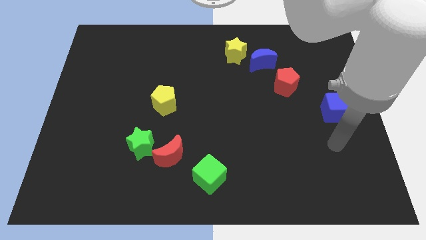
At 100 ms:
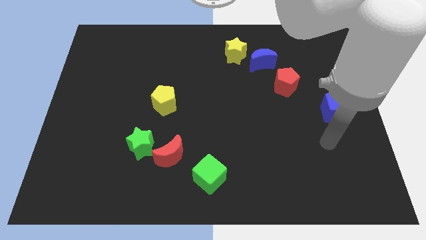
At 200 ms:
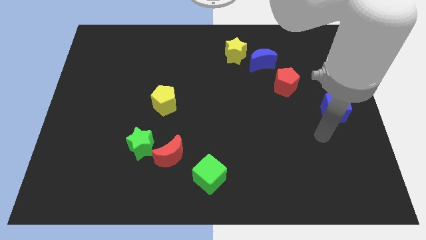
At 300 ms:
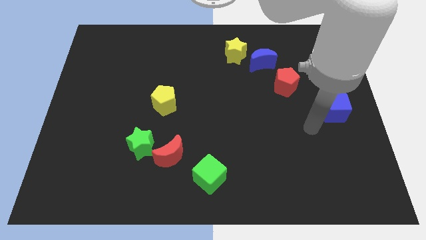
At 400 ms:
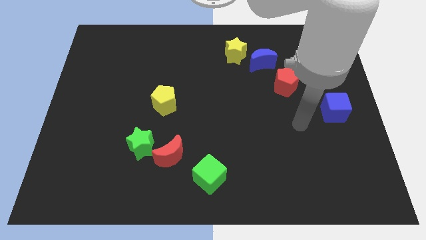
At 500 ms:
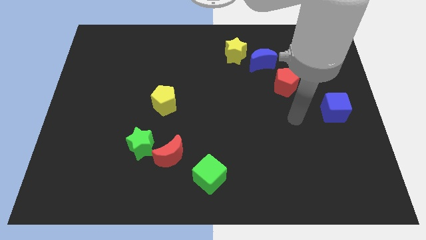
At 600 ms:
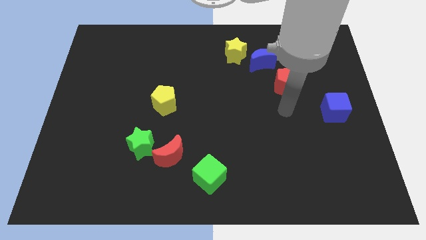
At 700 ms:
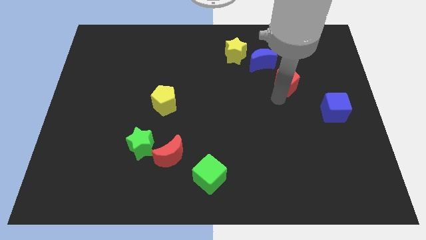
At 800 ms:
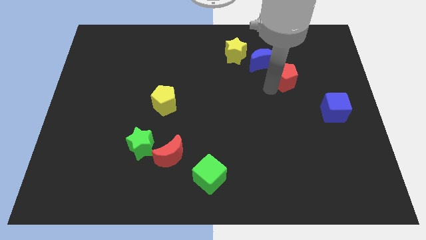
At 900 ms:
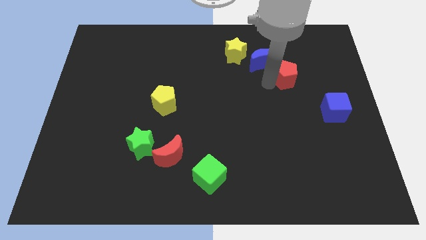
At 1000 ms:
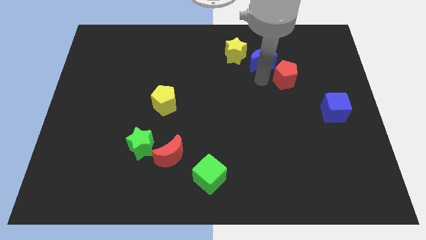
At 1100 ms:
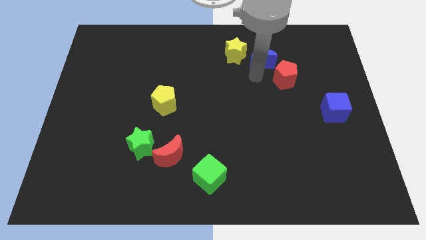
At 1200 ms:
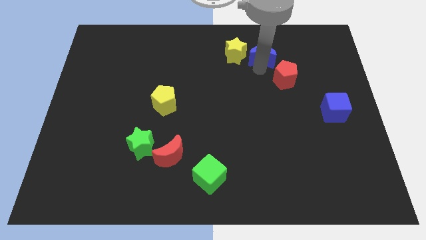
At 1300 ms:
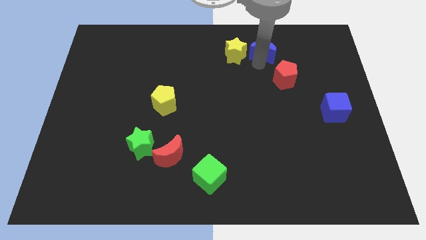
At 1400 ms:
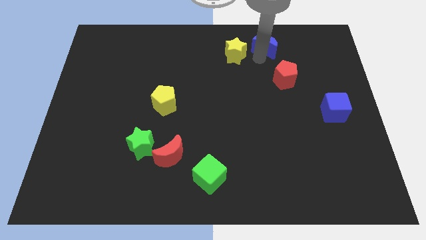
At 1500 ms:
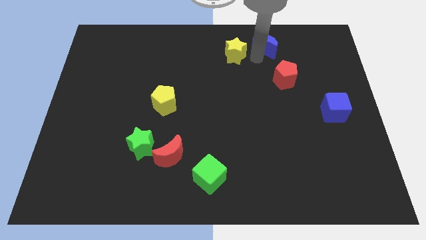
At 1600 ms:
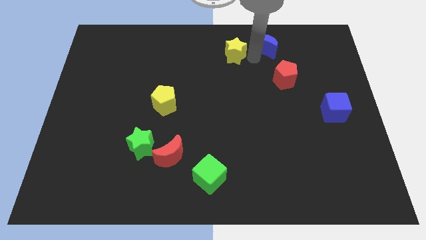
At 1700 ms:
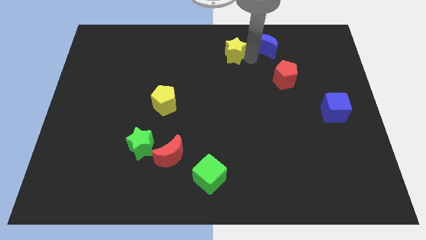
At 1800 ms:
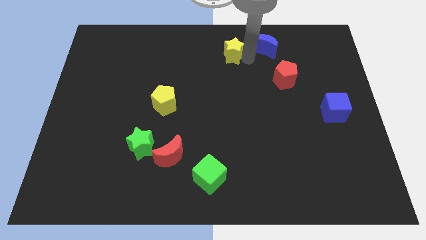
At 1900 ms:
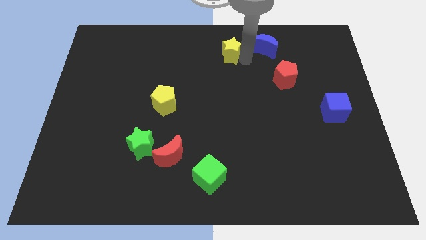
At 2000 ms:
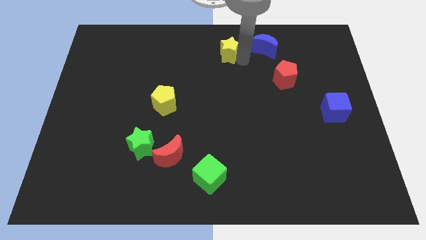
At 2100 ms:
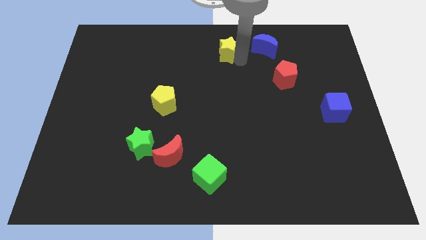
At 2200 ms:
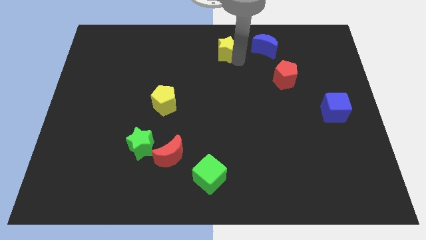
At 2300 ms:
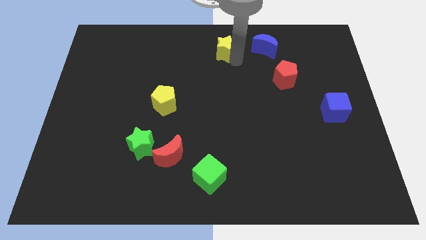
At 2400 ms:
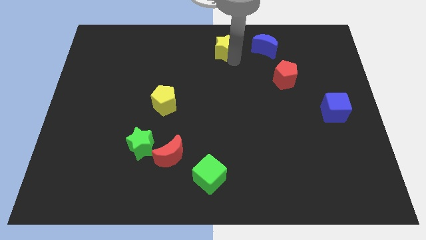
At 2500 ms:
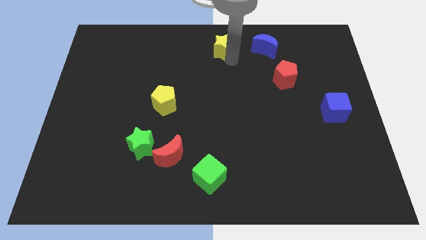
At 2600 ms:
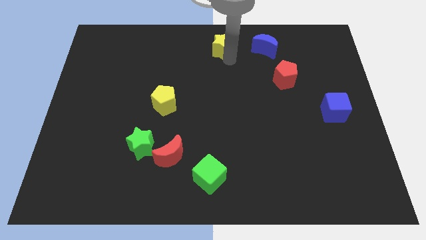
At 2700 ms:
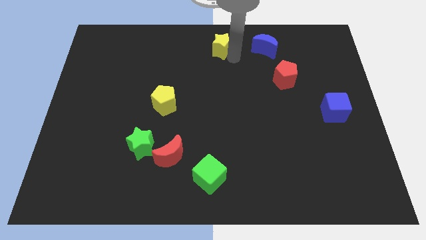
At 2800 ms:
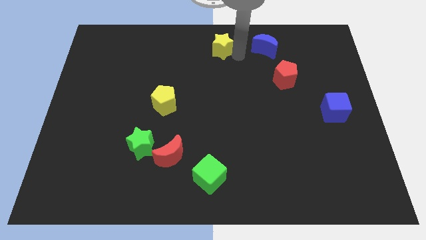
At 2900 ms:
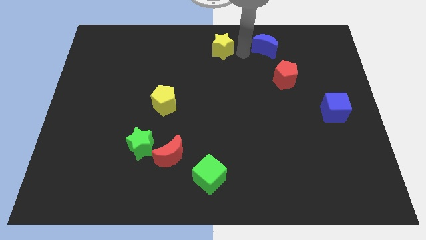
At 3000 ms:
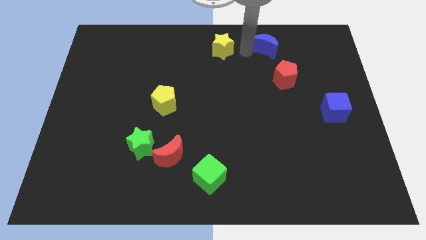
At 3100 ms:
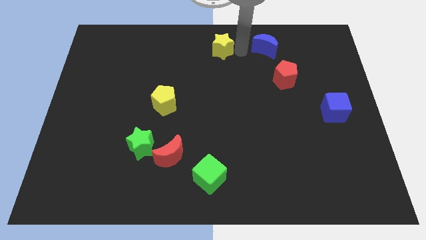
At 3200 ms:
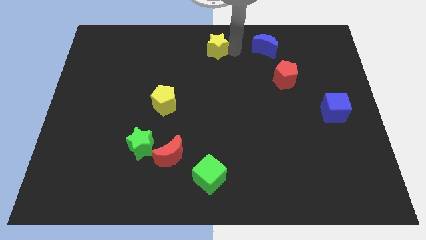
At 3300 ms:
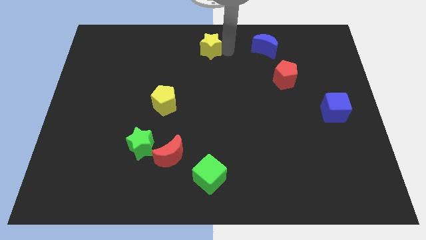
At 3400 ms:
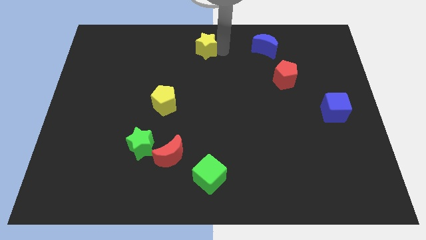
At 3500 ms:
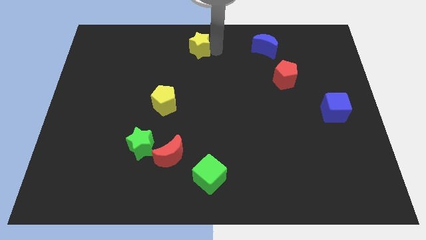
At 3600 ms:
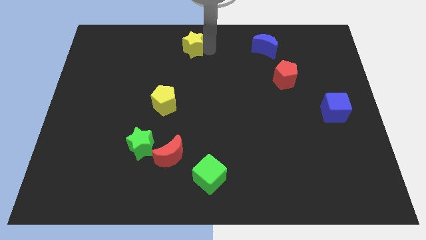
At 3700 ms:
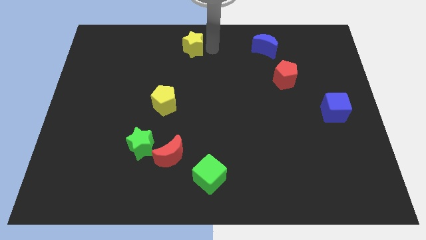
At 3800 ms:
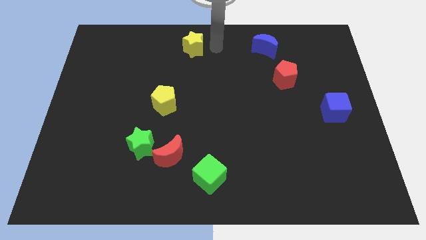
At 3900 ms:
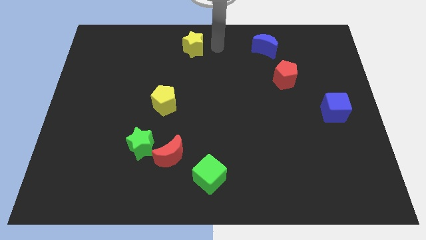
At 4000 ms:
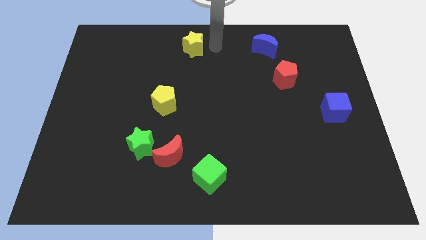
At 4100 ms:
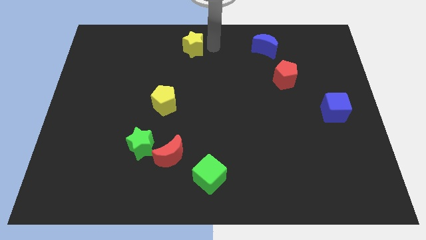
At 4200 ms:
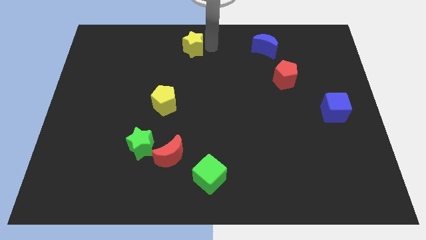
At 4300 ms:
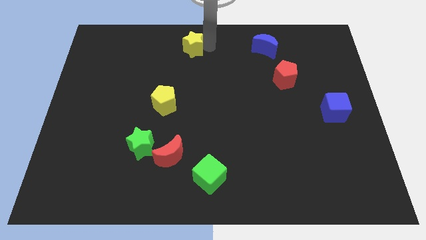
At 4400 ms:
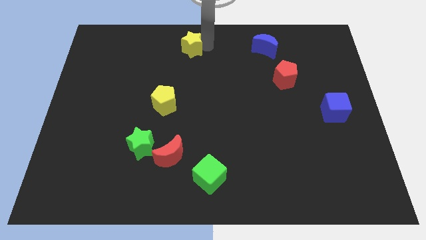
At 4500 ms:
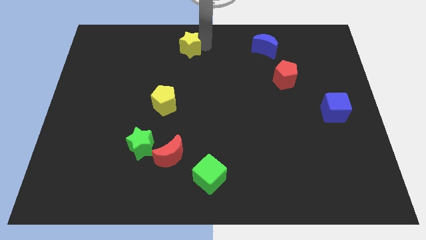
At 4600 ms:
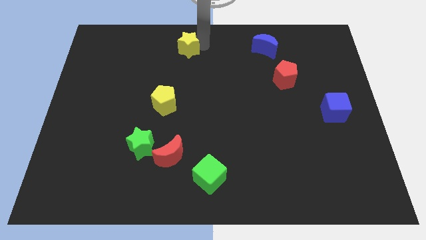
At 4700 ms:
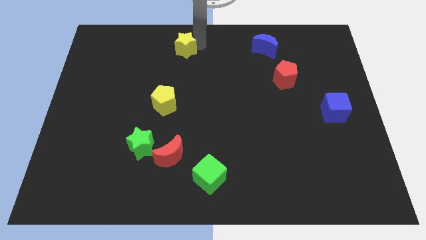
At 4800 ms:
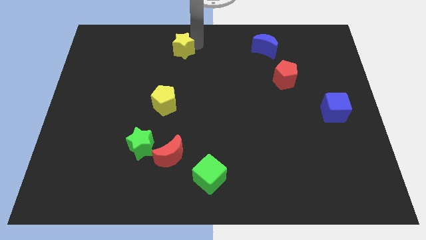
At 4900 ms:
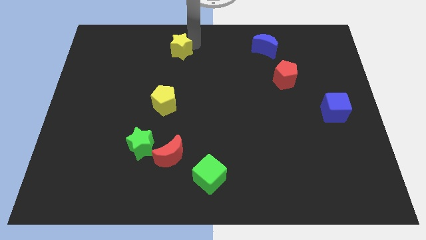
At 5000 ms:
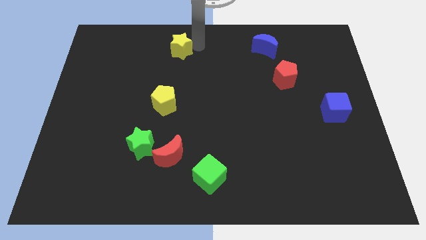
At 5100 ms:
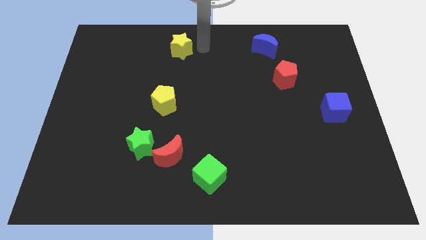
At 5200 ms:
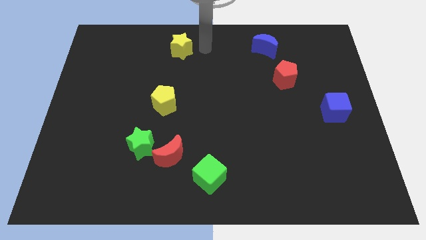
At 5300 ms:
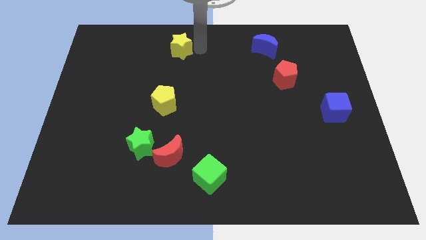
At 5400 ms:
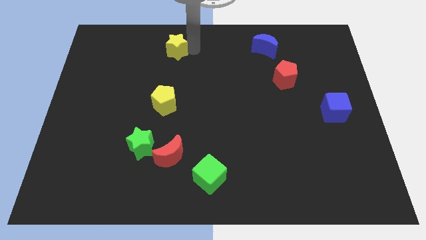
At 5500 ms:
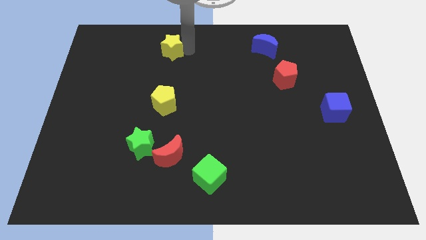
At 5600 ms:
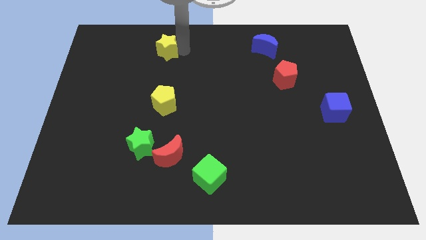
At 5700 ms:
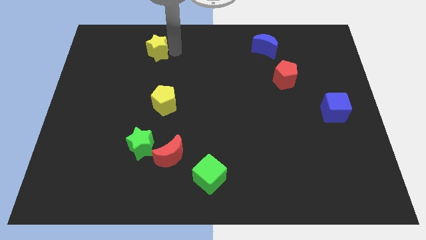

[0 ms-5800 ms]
slide the yellow star left

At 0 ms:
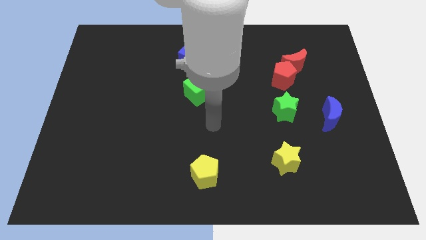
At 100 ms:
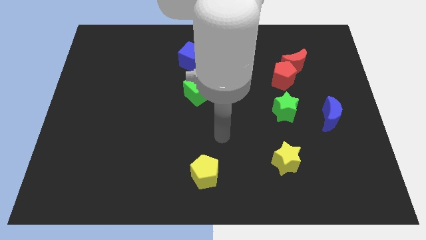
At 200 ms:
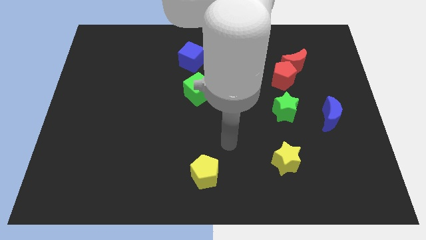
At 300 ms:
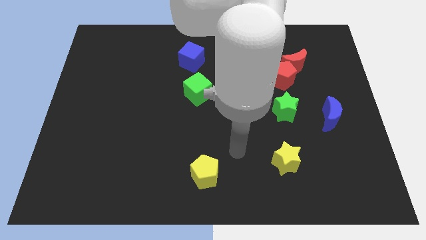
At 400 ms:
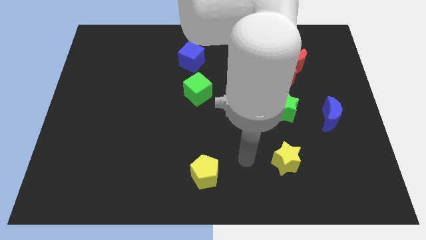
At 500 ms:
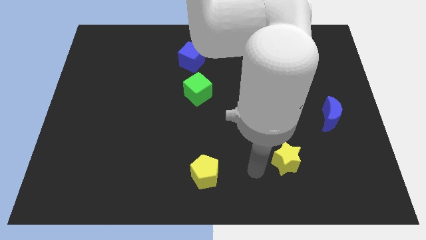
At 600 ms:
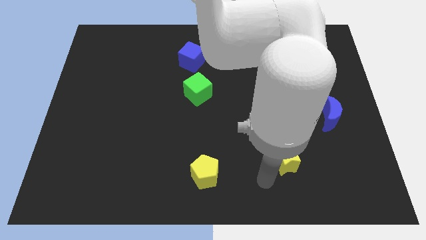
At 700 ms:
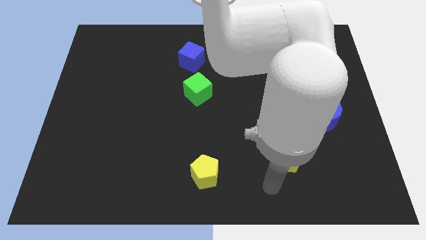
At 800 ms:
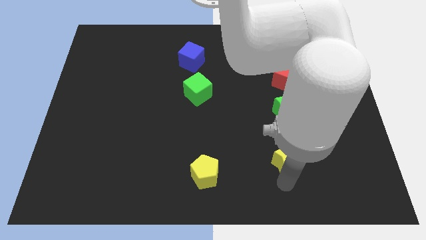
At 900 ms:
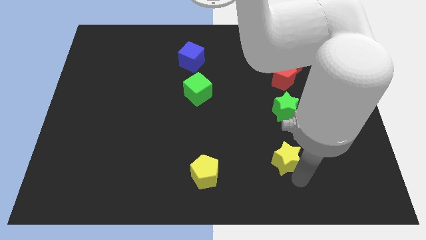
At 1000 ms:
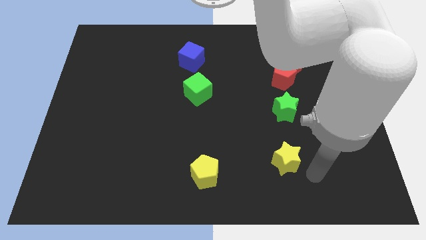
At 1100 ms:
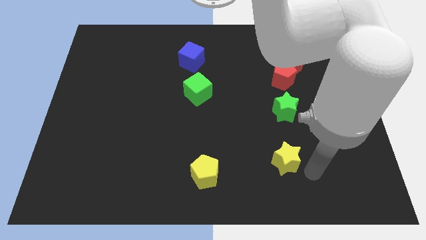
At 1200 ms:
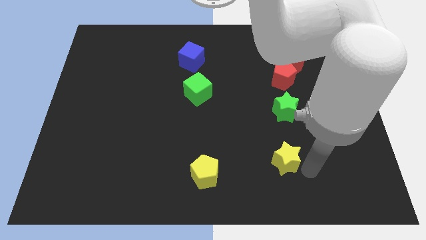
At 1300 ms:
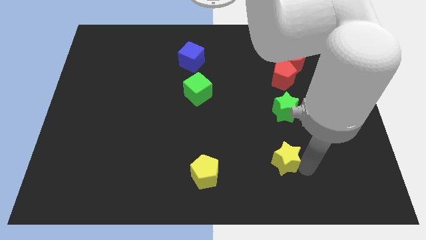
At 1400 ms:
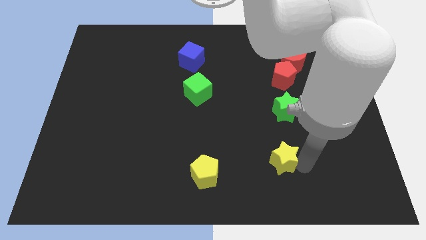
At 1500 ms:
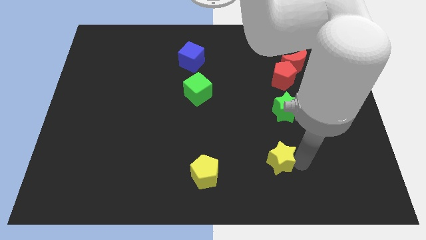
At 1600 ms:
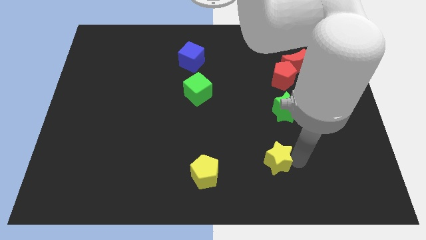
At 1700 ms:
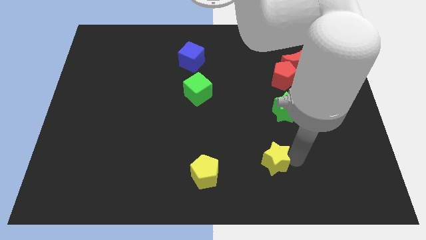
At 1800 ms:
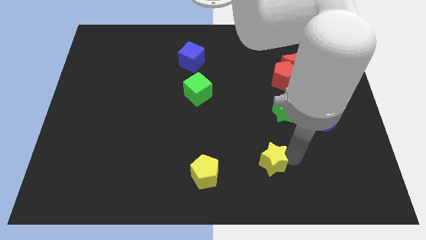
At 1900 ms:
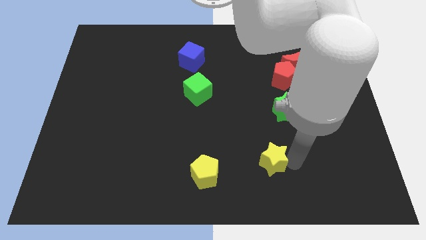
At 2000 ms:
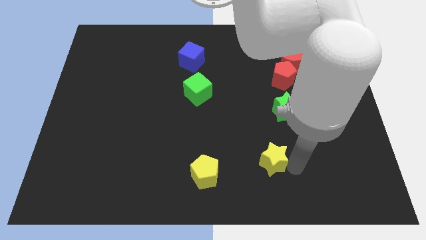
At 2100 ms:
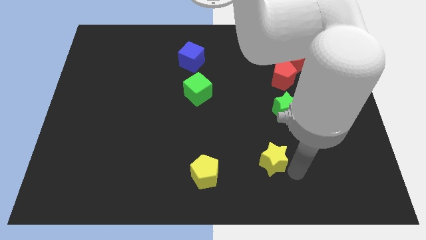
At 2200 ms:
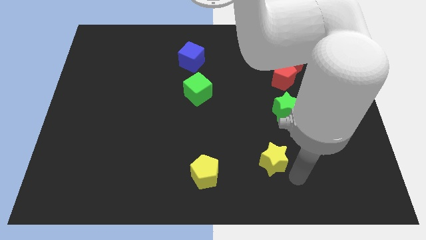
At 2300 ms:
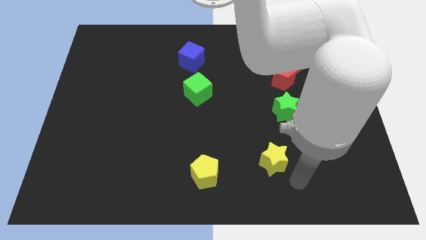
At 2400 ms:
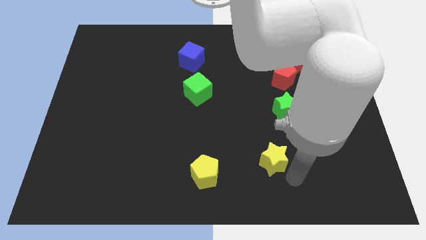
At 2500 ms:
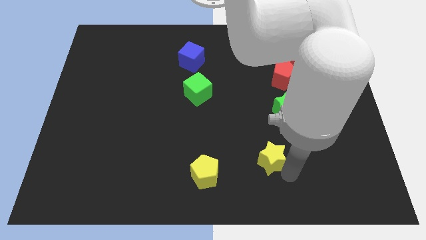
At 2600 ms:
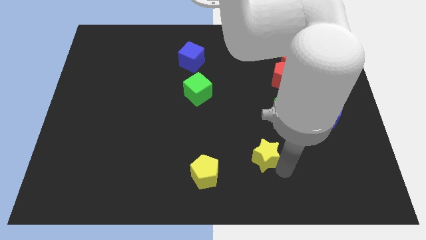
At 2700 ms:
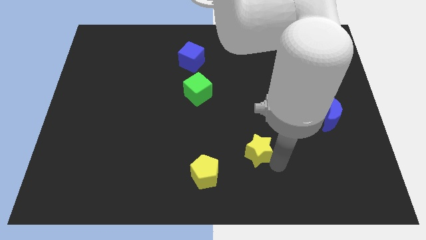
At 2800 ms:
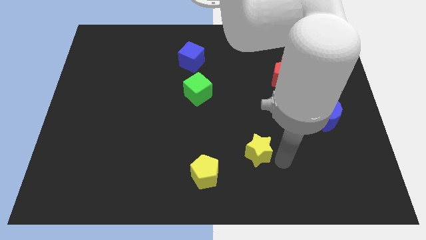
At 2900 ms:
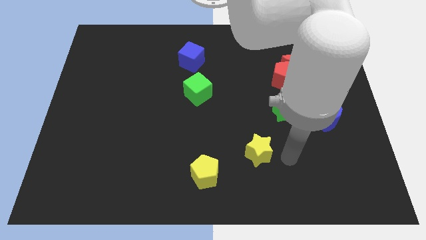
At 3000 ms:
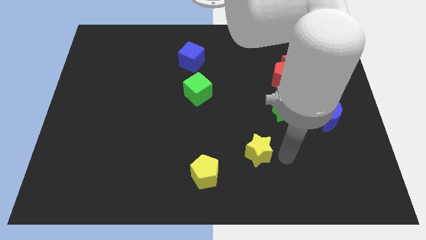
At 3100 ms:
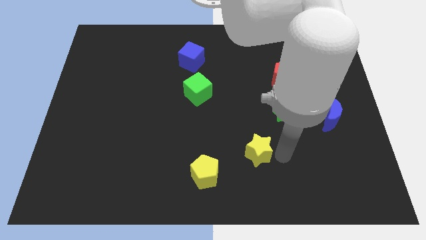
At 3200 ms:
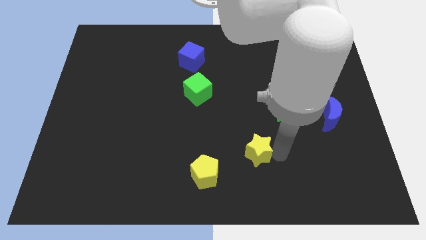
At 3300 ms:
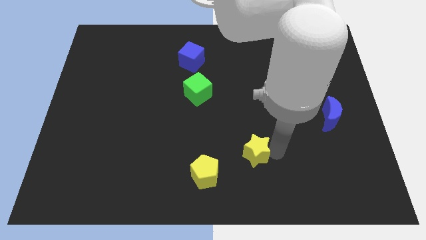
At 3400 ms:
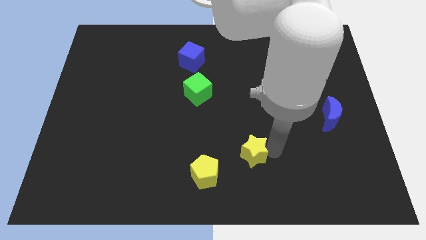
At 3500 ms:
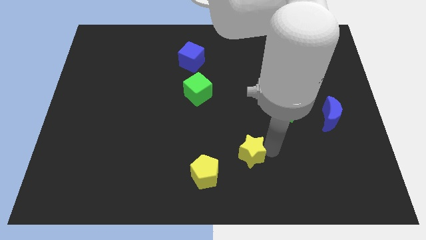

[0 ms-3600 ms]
slide the yellow star a bit to the left
